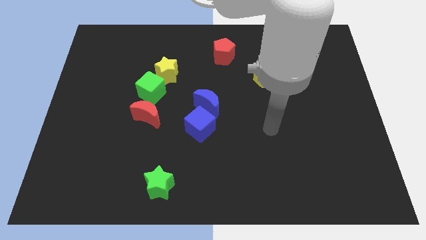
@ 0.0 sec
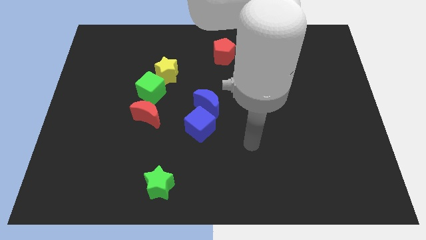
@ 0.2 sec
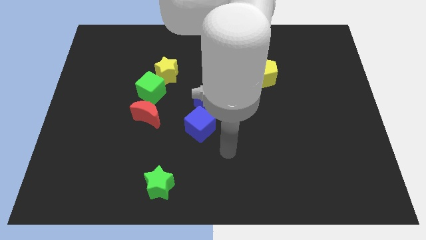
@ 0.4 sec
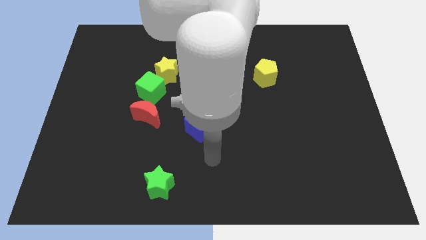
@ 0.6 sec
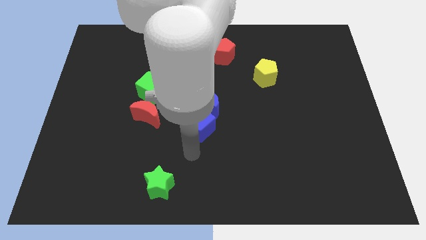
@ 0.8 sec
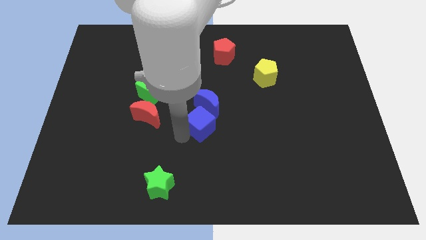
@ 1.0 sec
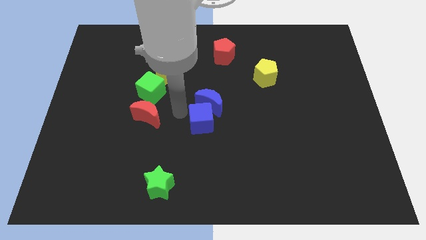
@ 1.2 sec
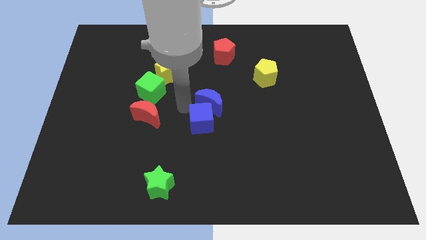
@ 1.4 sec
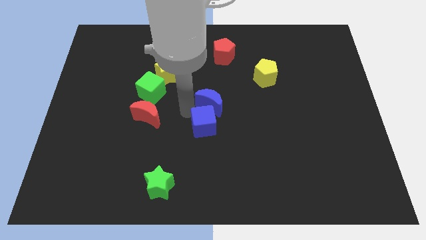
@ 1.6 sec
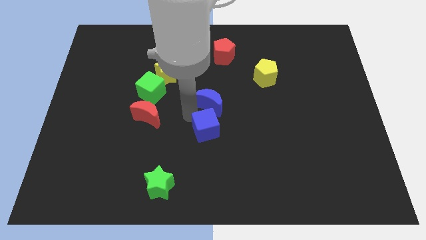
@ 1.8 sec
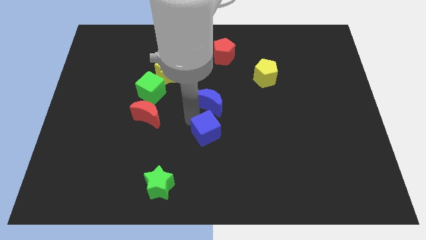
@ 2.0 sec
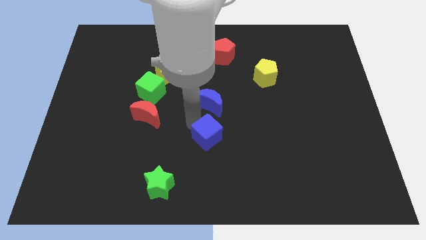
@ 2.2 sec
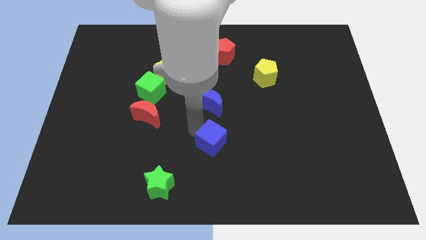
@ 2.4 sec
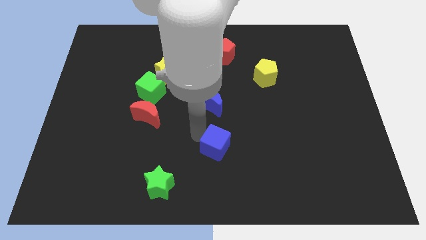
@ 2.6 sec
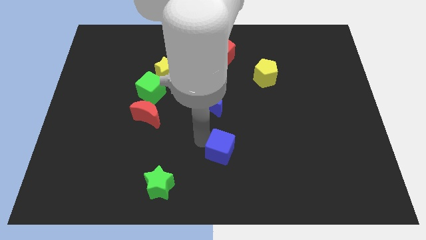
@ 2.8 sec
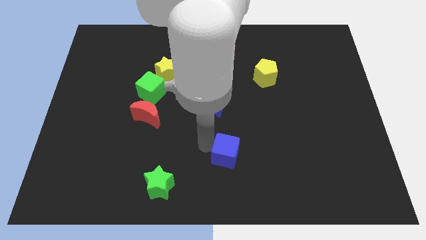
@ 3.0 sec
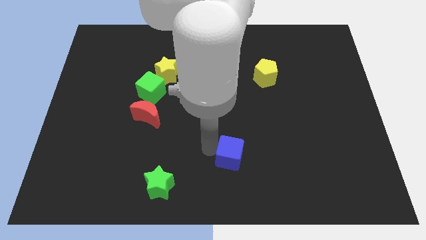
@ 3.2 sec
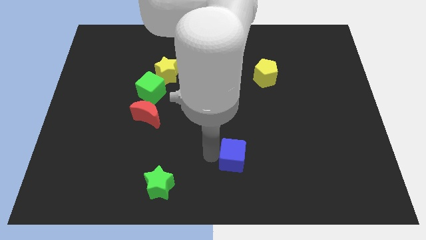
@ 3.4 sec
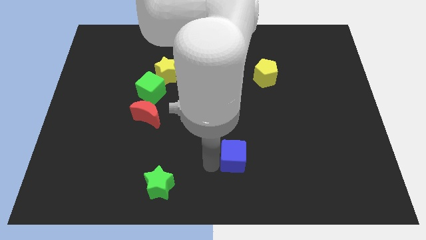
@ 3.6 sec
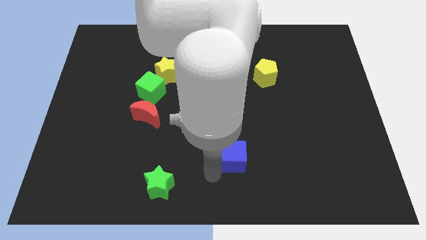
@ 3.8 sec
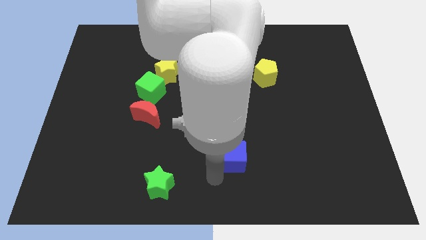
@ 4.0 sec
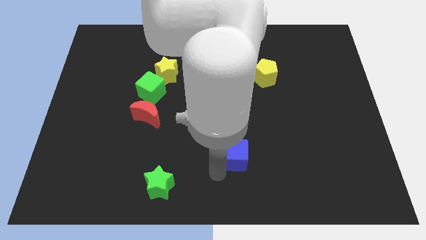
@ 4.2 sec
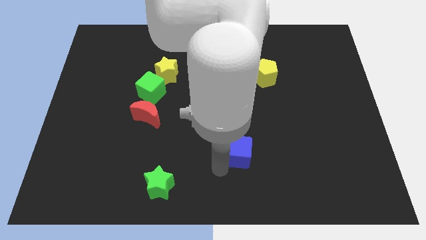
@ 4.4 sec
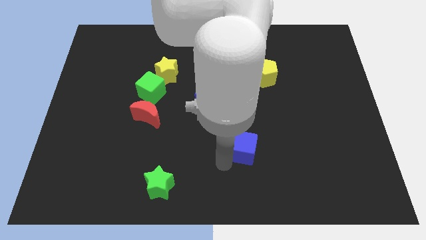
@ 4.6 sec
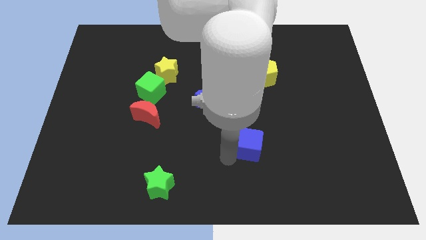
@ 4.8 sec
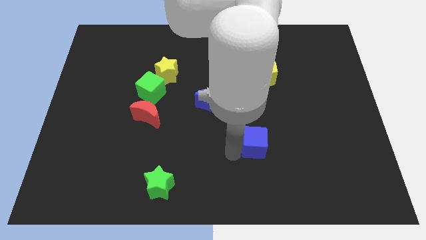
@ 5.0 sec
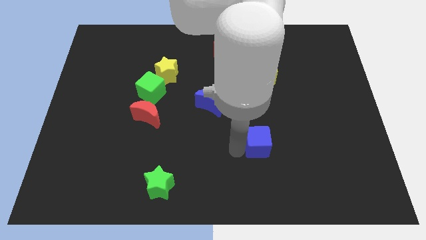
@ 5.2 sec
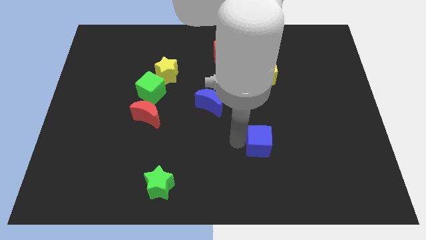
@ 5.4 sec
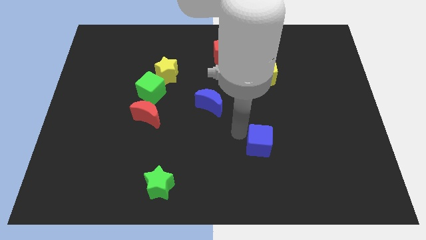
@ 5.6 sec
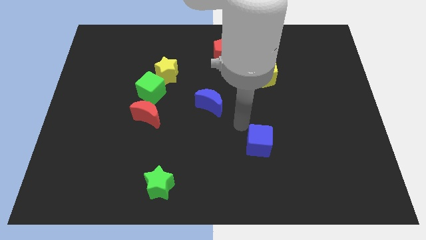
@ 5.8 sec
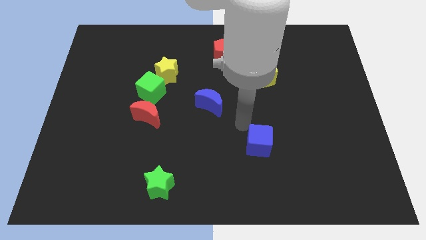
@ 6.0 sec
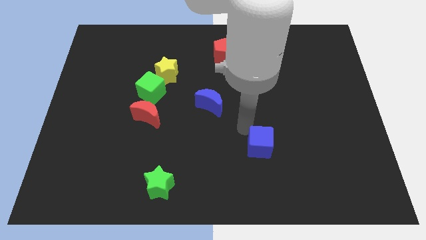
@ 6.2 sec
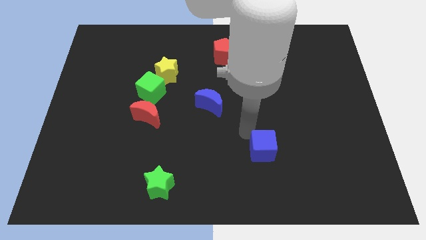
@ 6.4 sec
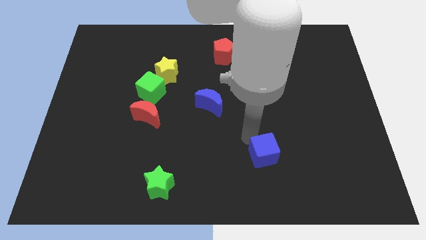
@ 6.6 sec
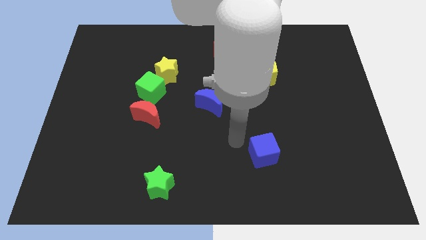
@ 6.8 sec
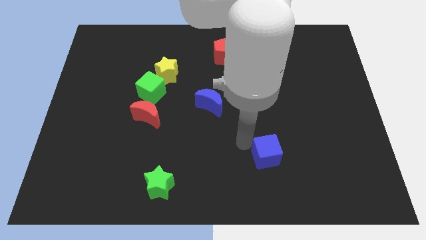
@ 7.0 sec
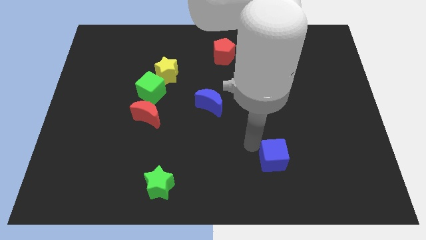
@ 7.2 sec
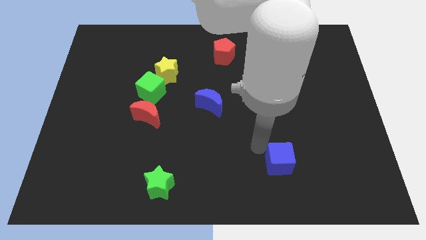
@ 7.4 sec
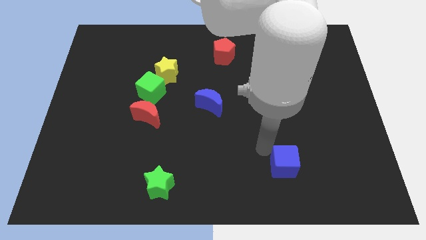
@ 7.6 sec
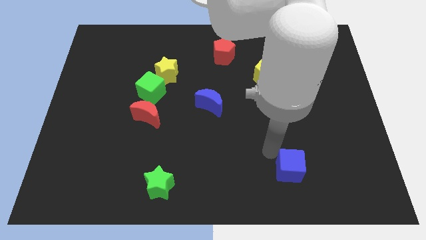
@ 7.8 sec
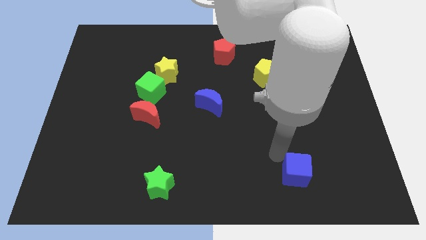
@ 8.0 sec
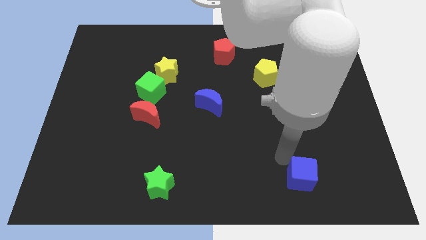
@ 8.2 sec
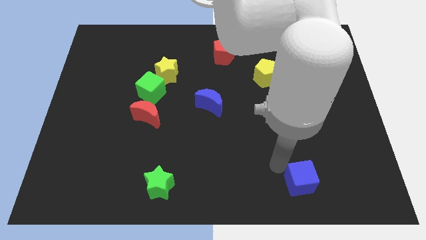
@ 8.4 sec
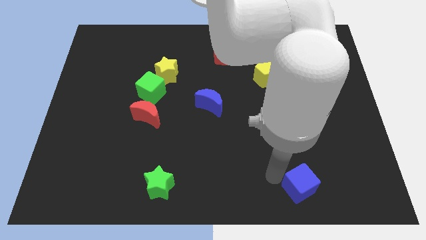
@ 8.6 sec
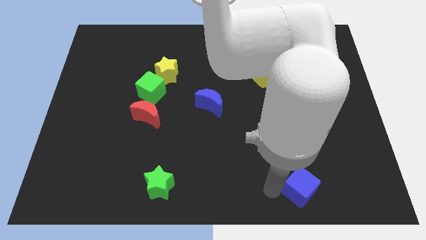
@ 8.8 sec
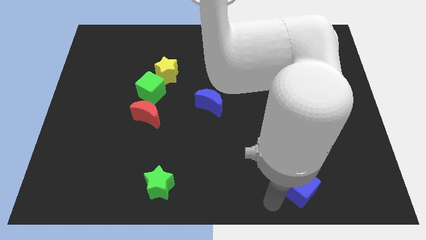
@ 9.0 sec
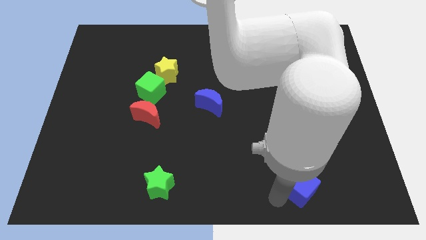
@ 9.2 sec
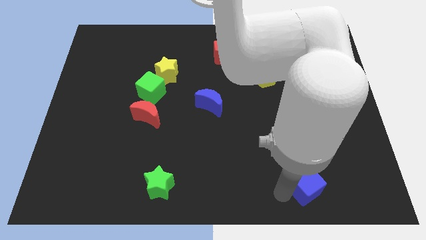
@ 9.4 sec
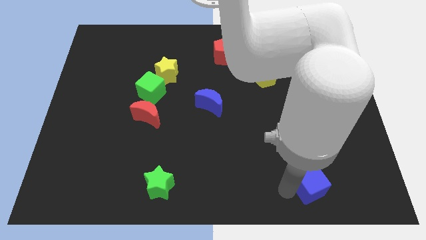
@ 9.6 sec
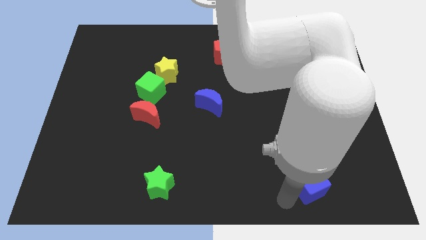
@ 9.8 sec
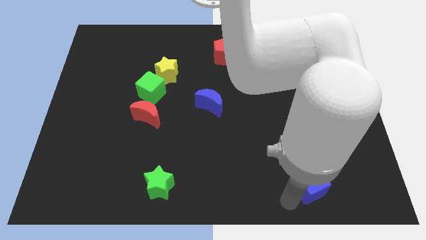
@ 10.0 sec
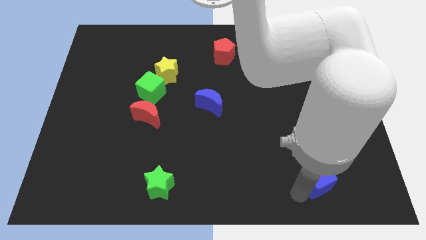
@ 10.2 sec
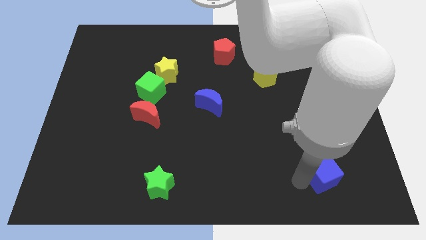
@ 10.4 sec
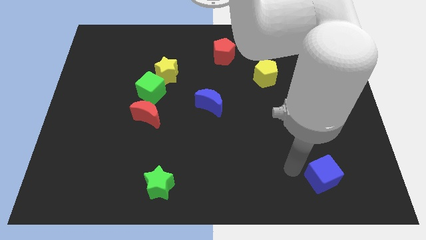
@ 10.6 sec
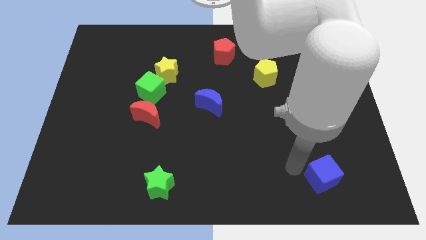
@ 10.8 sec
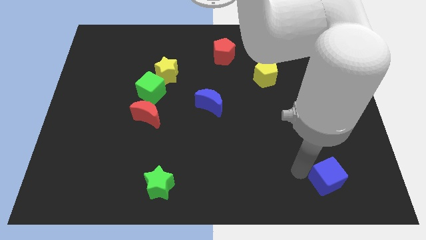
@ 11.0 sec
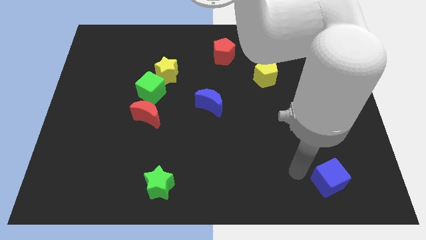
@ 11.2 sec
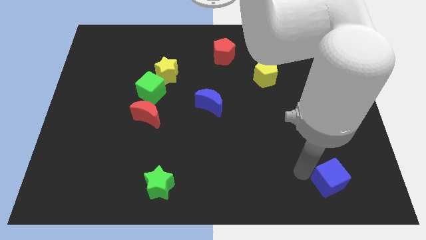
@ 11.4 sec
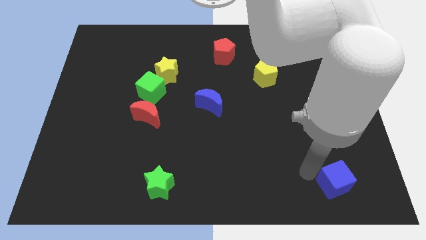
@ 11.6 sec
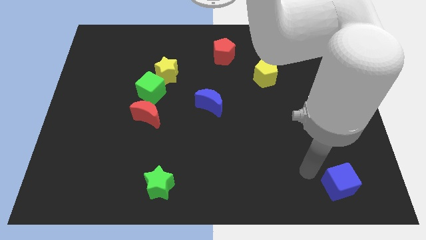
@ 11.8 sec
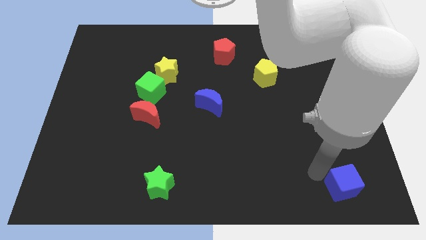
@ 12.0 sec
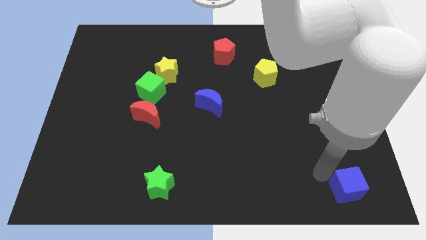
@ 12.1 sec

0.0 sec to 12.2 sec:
put the blue cube to the bottom right corner

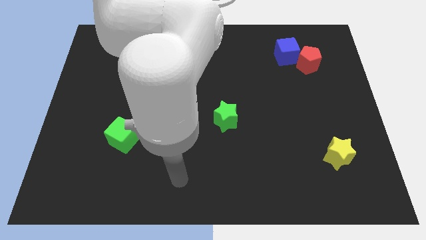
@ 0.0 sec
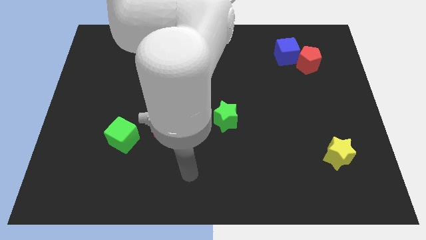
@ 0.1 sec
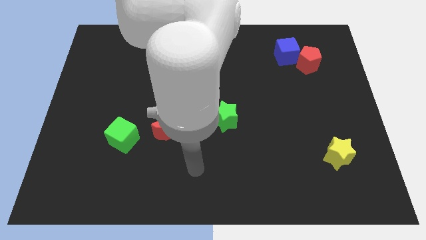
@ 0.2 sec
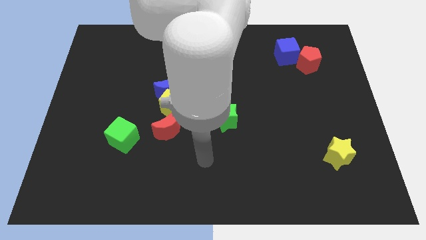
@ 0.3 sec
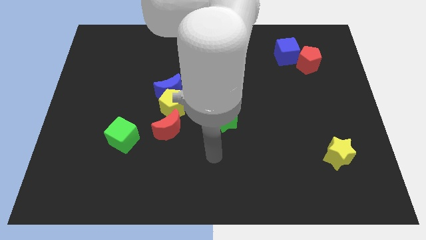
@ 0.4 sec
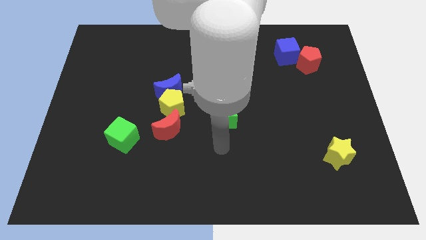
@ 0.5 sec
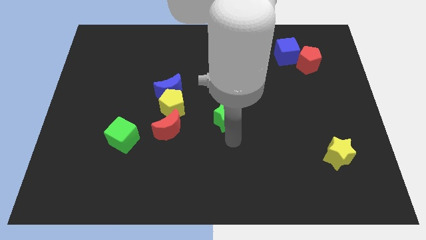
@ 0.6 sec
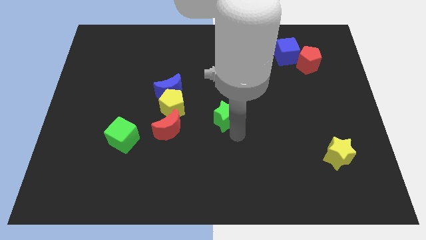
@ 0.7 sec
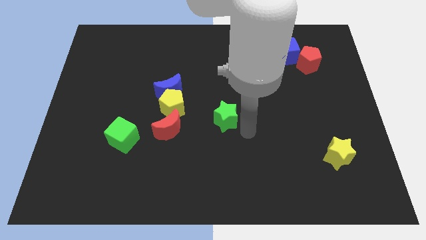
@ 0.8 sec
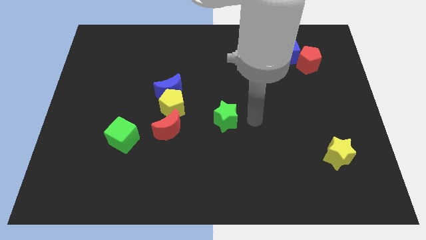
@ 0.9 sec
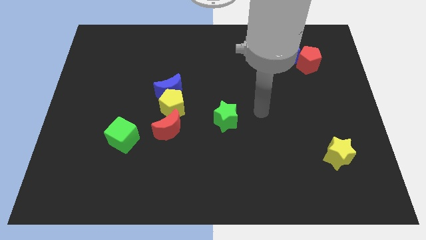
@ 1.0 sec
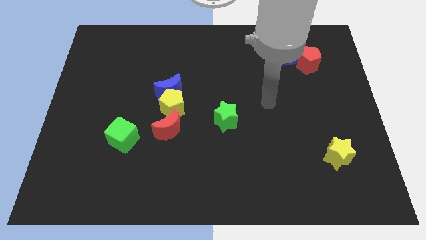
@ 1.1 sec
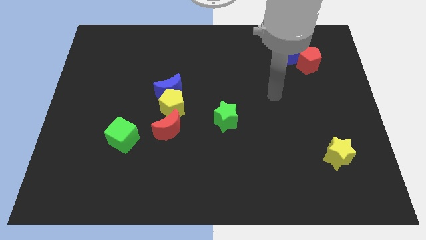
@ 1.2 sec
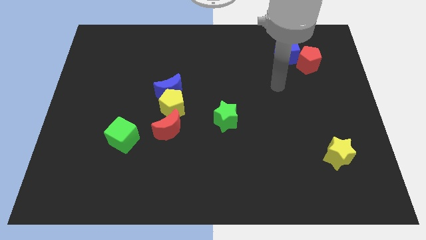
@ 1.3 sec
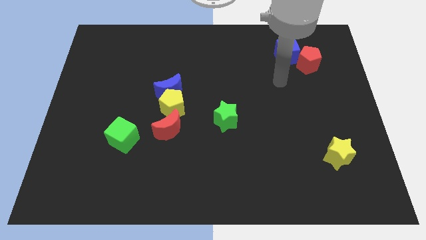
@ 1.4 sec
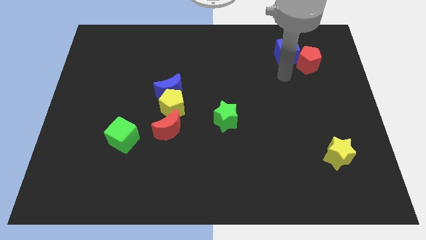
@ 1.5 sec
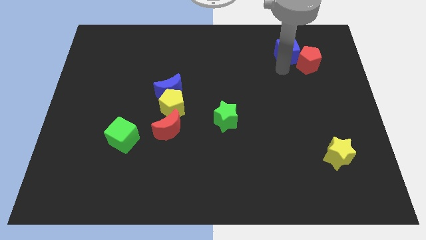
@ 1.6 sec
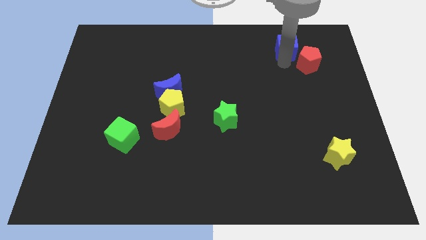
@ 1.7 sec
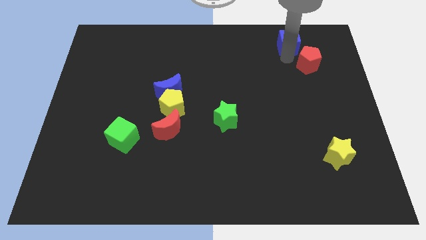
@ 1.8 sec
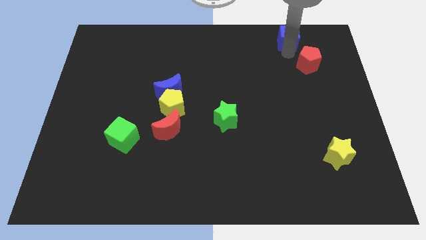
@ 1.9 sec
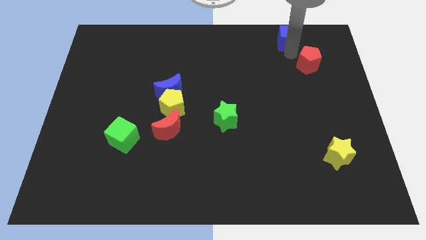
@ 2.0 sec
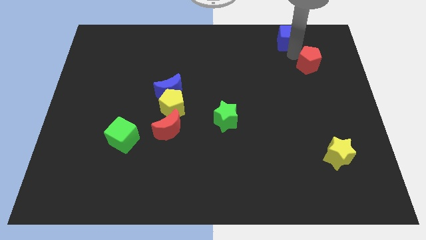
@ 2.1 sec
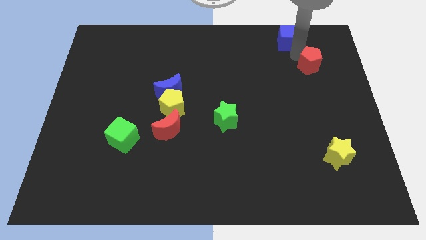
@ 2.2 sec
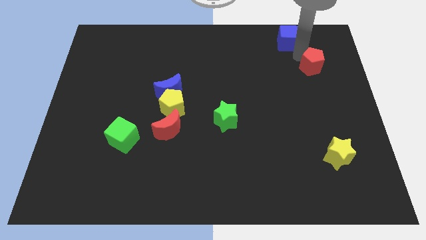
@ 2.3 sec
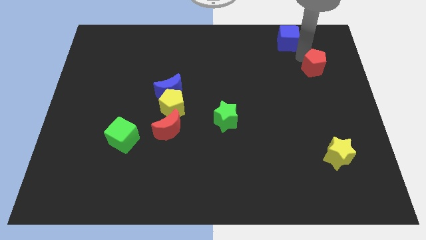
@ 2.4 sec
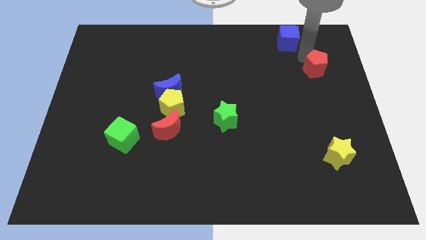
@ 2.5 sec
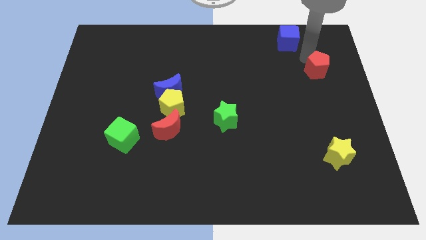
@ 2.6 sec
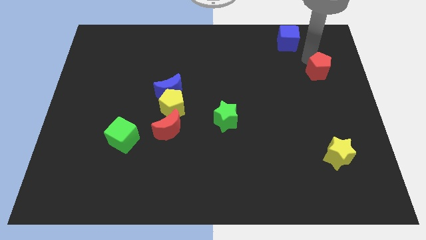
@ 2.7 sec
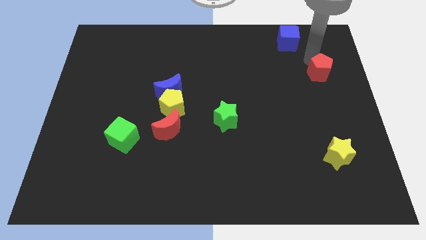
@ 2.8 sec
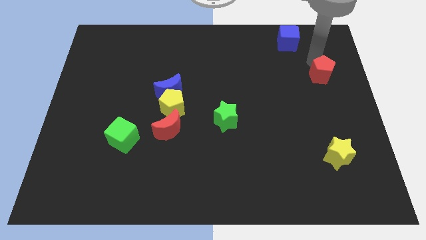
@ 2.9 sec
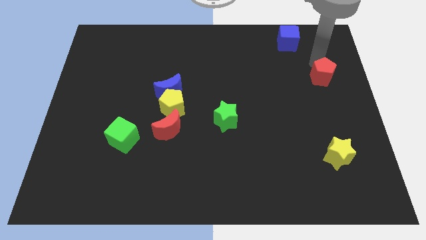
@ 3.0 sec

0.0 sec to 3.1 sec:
push the red pentagon to the center right
